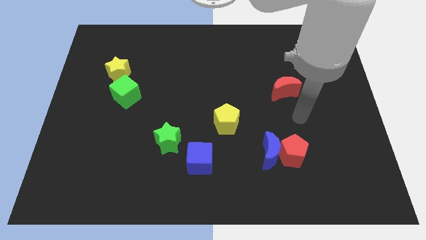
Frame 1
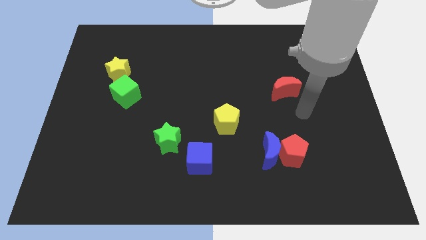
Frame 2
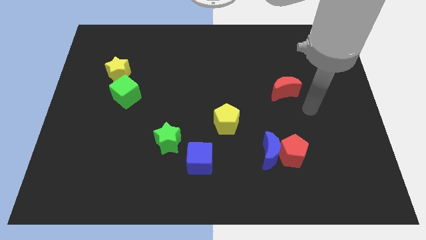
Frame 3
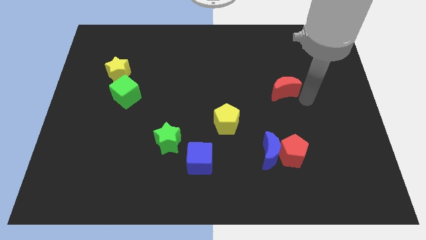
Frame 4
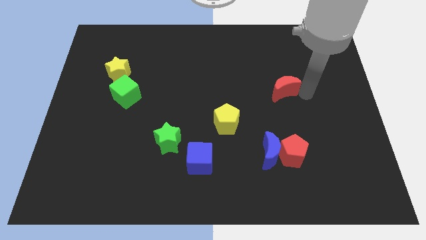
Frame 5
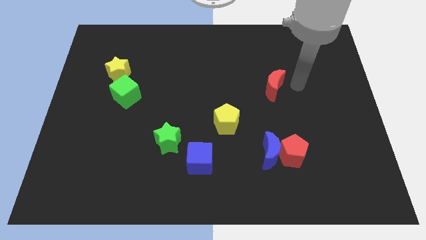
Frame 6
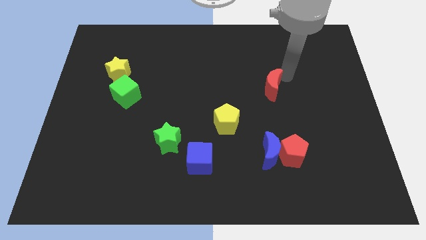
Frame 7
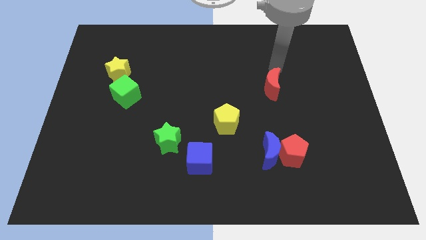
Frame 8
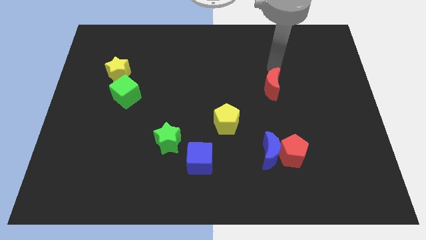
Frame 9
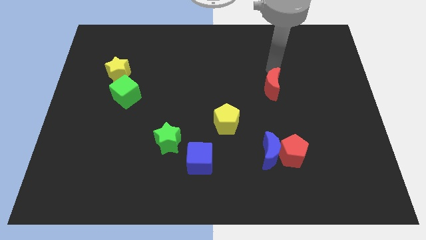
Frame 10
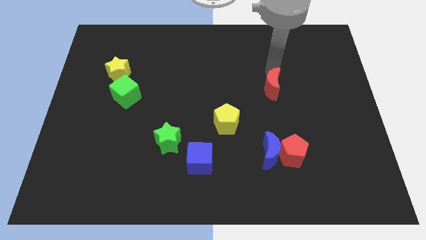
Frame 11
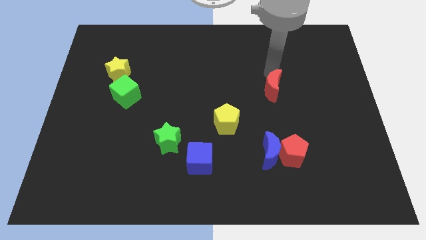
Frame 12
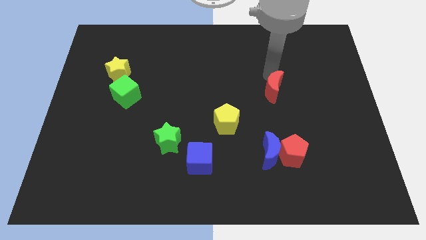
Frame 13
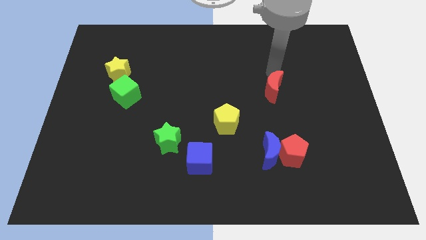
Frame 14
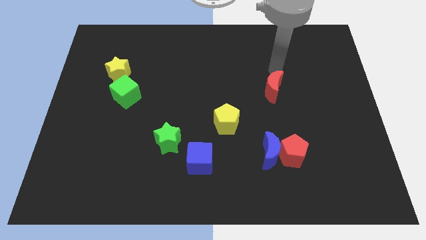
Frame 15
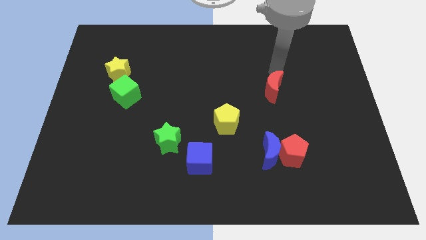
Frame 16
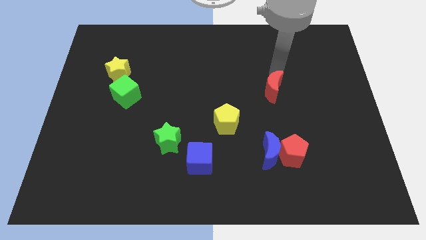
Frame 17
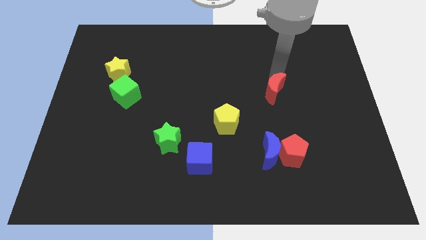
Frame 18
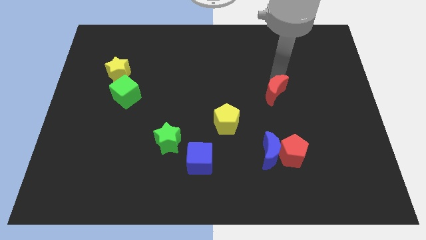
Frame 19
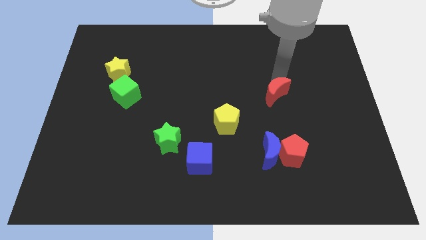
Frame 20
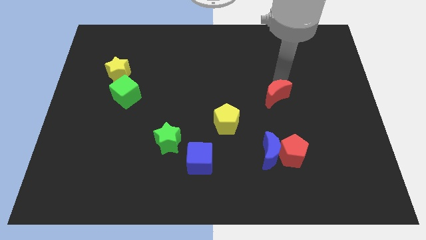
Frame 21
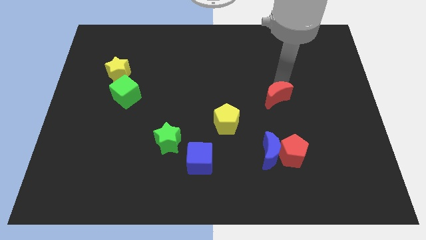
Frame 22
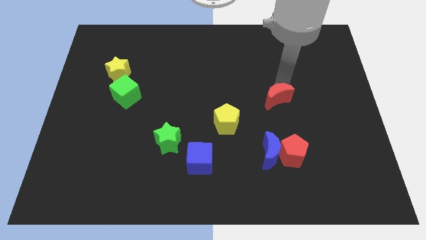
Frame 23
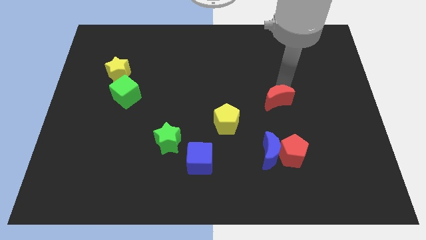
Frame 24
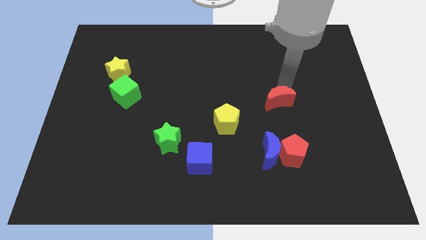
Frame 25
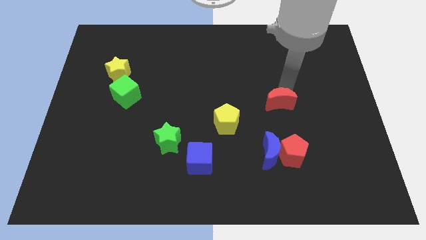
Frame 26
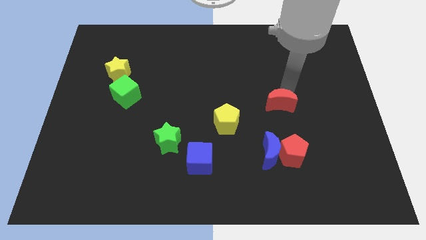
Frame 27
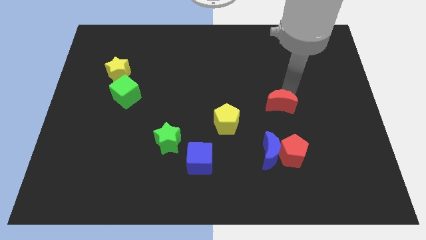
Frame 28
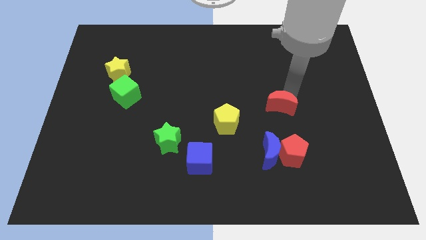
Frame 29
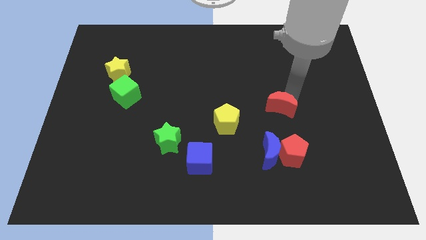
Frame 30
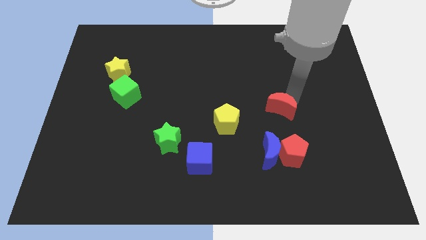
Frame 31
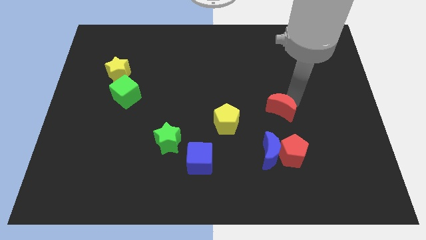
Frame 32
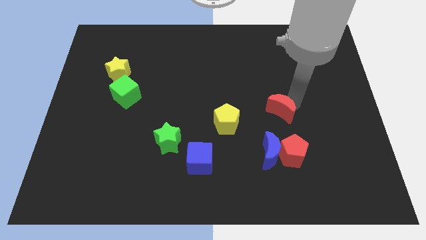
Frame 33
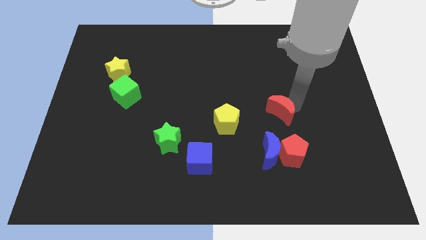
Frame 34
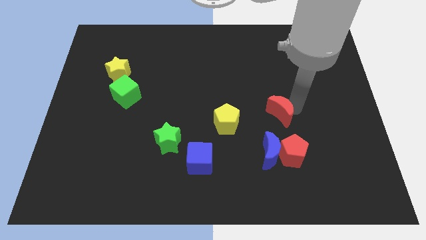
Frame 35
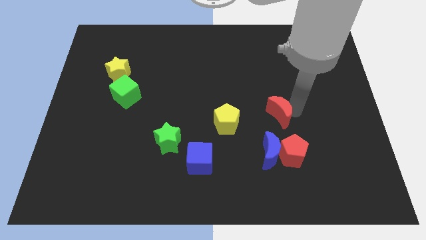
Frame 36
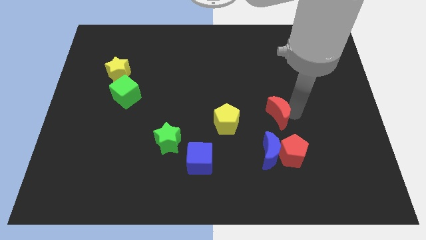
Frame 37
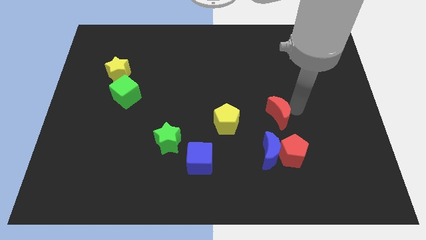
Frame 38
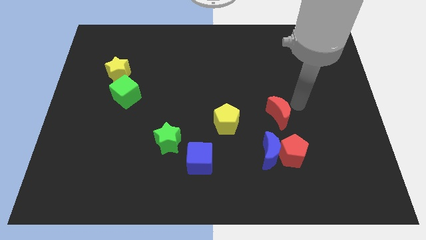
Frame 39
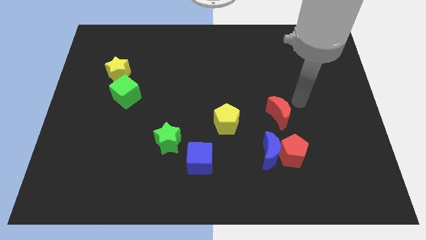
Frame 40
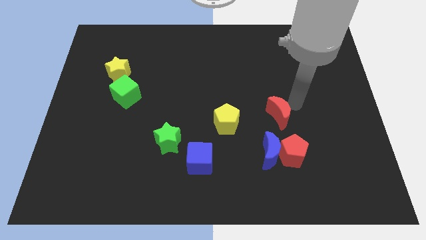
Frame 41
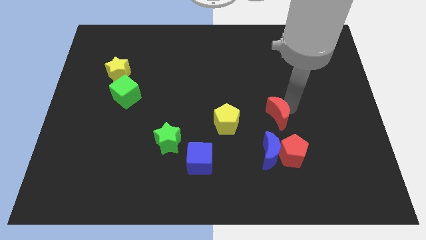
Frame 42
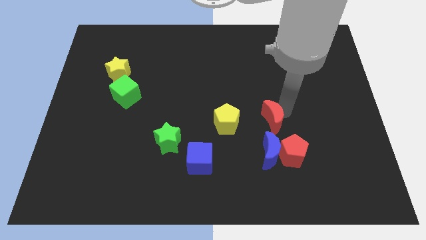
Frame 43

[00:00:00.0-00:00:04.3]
slightly slide the red moon diagonally down and left

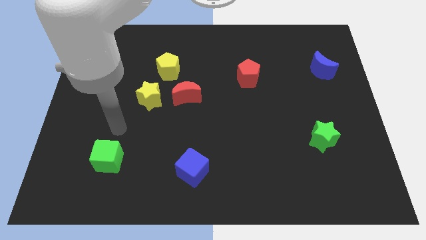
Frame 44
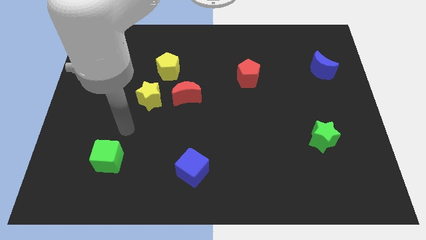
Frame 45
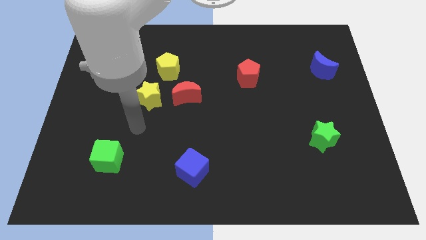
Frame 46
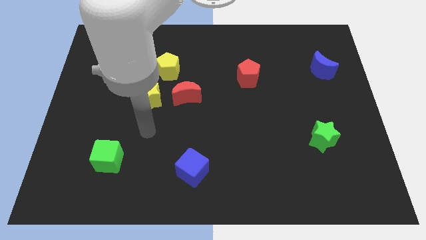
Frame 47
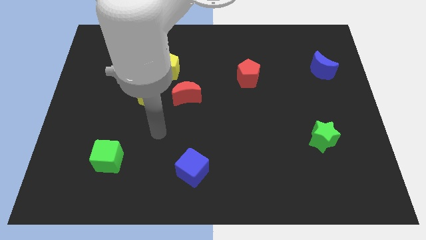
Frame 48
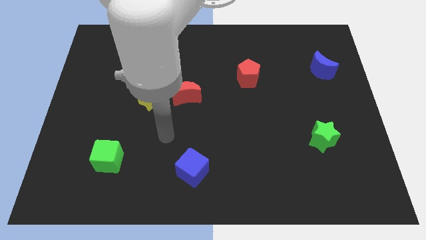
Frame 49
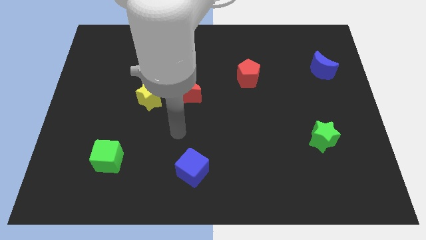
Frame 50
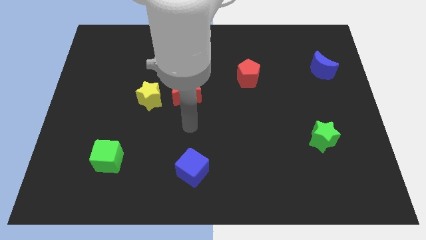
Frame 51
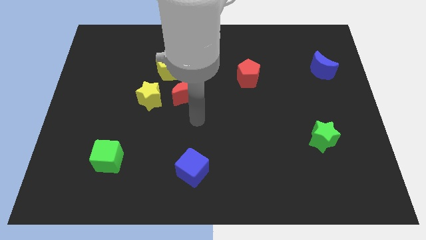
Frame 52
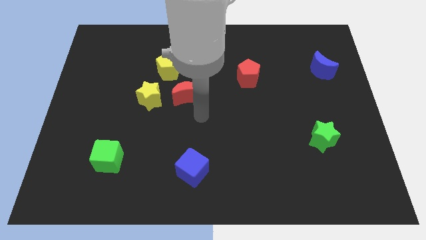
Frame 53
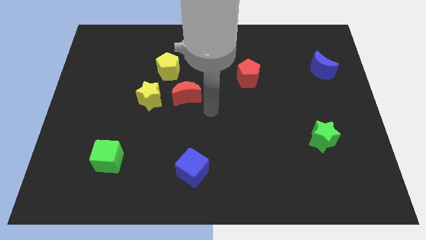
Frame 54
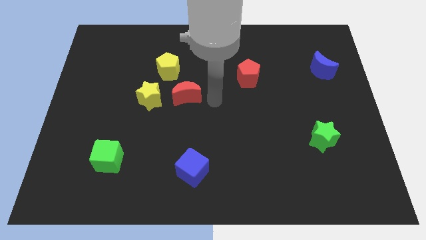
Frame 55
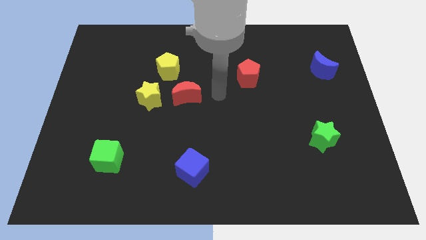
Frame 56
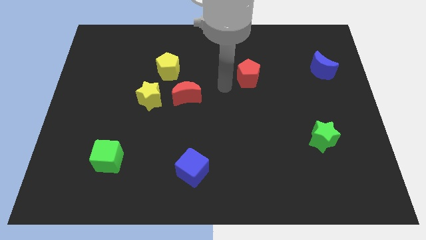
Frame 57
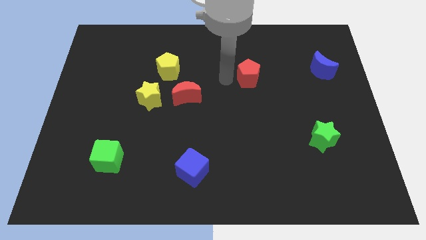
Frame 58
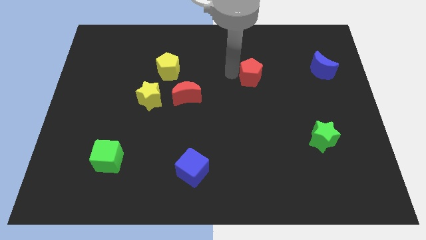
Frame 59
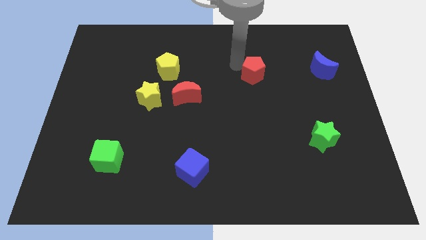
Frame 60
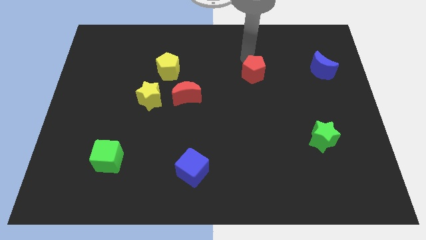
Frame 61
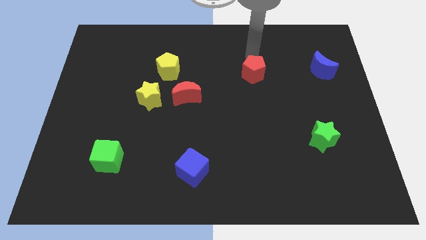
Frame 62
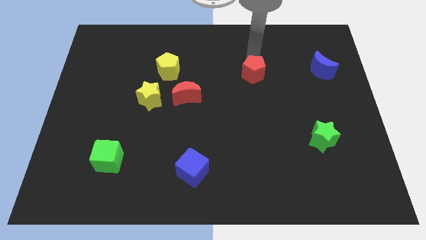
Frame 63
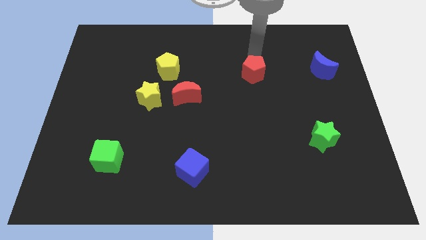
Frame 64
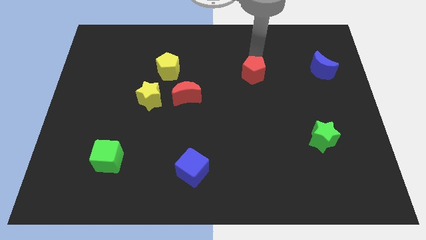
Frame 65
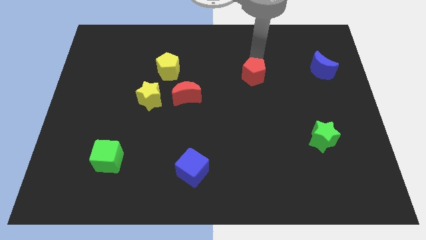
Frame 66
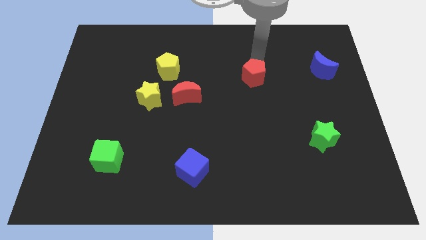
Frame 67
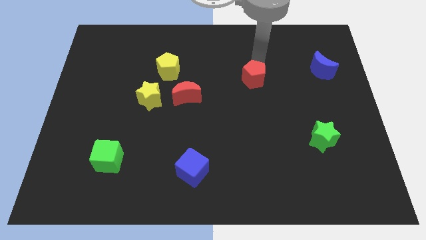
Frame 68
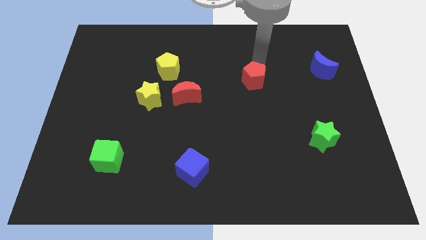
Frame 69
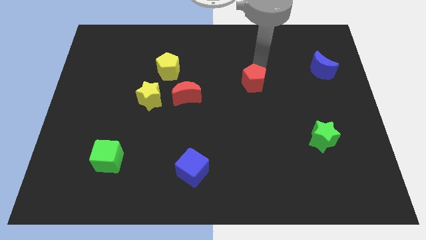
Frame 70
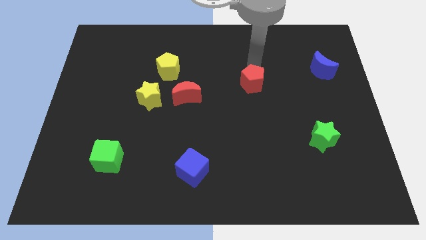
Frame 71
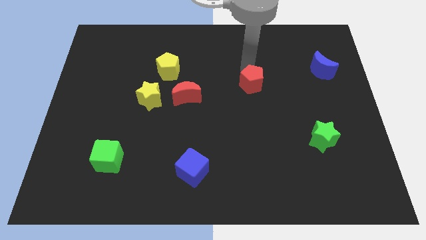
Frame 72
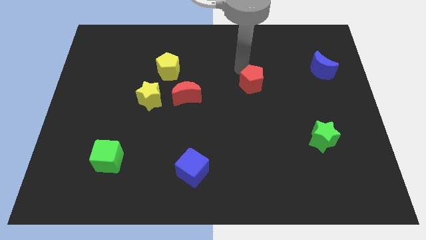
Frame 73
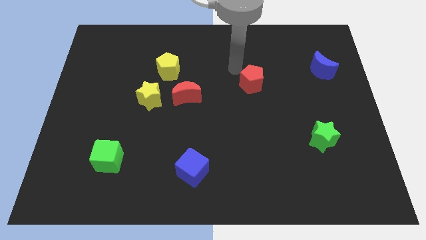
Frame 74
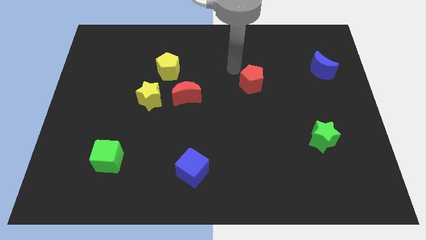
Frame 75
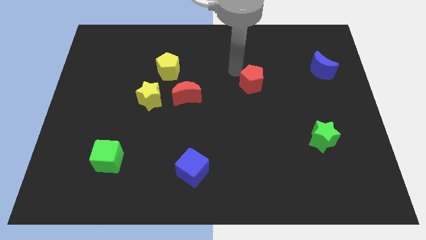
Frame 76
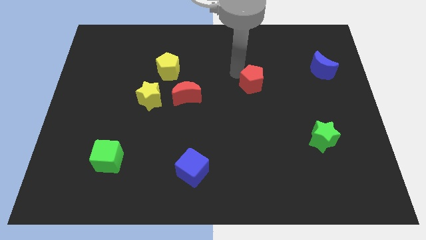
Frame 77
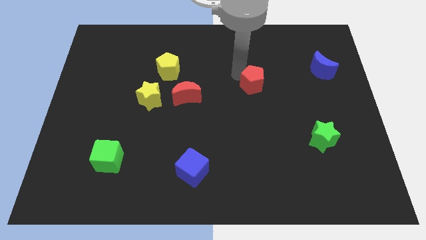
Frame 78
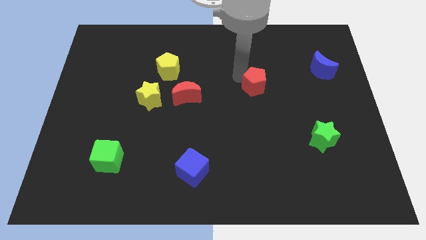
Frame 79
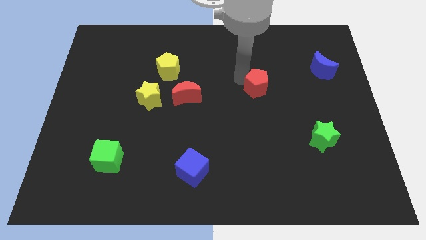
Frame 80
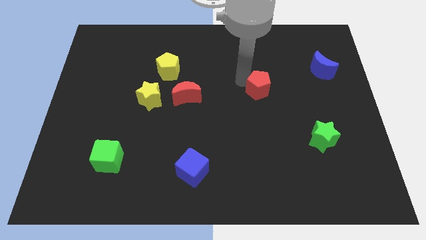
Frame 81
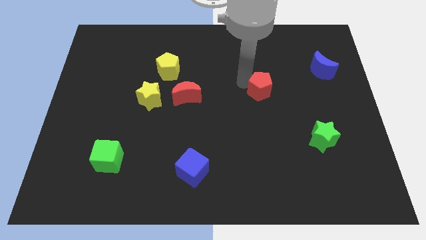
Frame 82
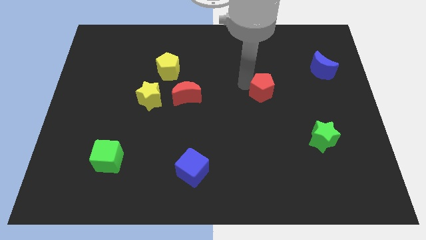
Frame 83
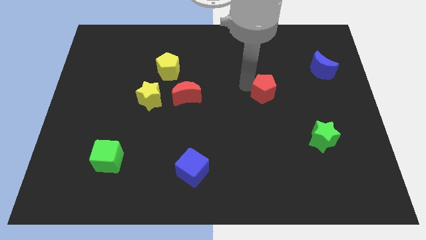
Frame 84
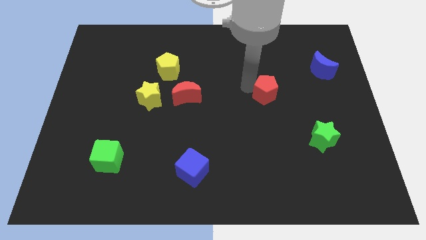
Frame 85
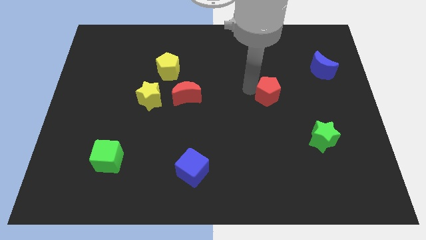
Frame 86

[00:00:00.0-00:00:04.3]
slightly push the red pentagon down and right diagonally
